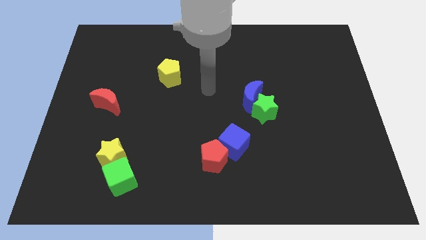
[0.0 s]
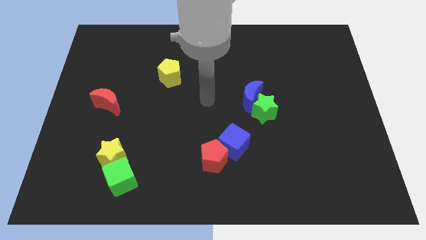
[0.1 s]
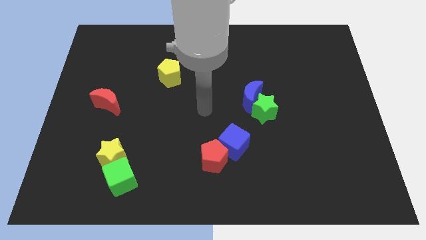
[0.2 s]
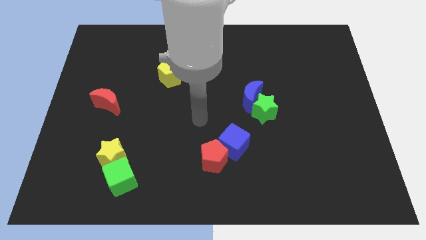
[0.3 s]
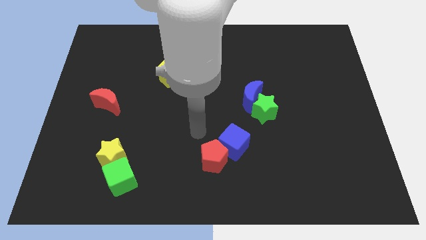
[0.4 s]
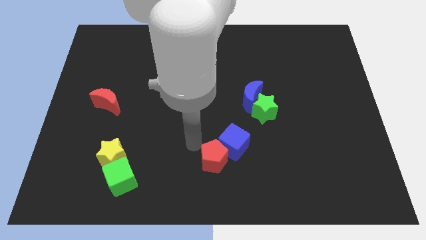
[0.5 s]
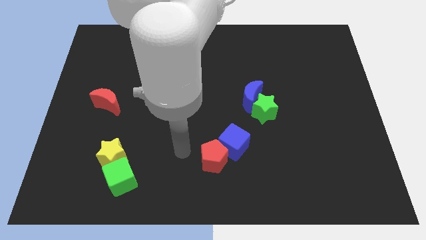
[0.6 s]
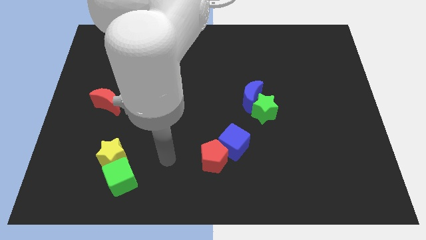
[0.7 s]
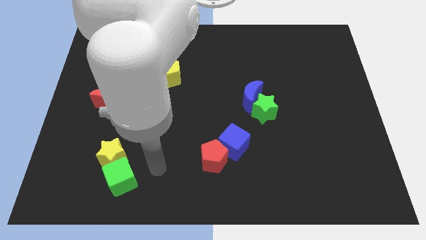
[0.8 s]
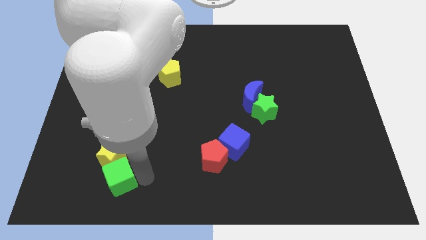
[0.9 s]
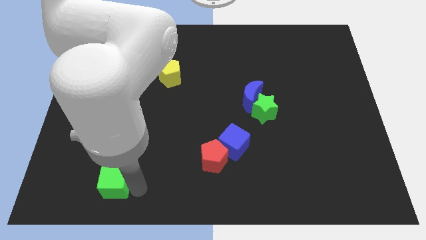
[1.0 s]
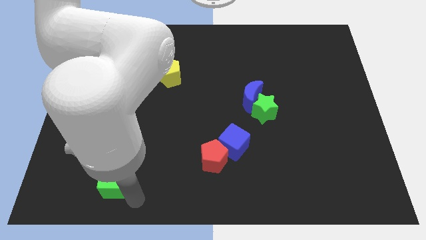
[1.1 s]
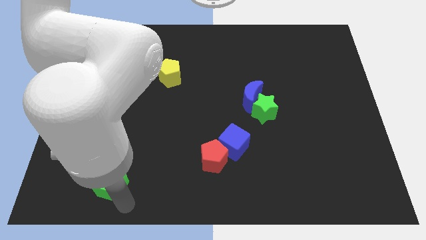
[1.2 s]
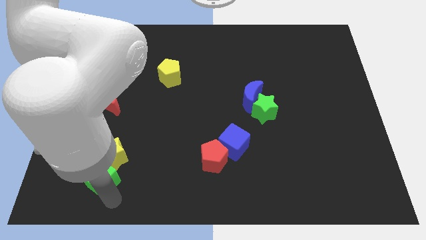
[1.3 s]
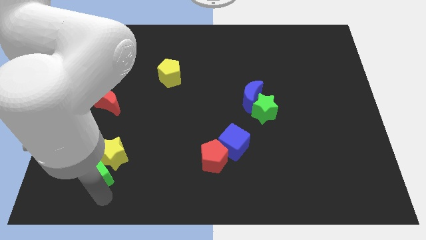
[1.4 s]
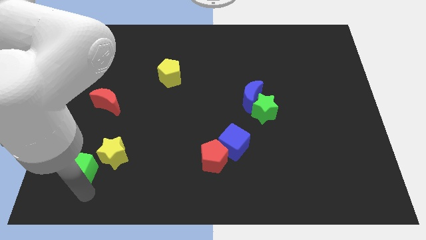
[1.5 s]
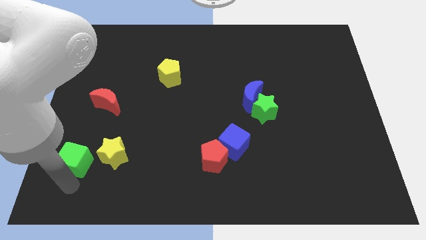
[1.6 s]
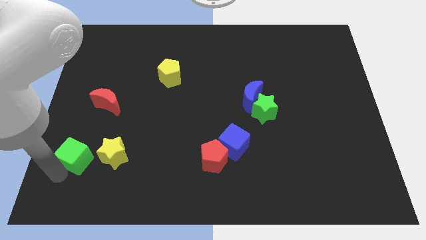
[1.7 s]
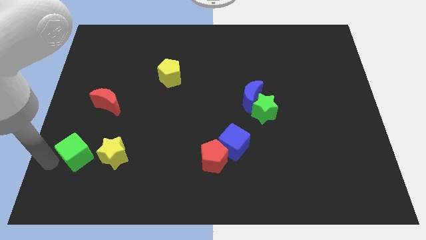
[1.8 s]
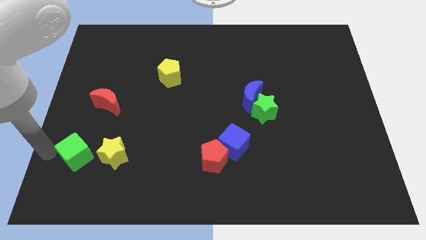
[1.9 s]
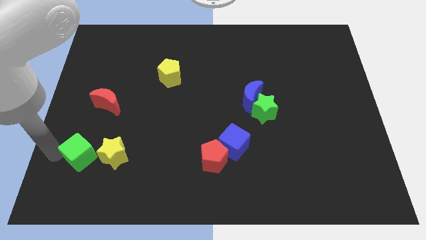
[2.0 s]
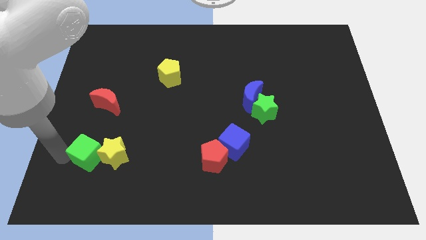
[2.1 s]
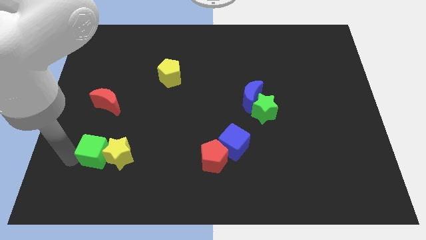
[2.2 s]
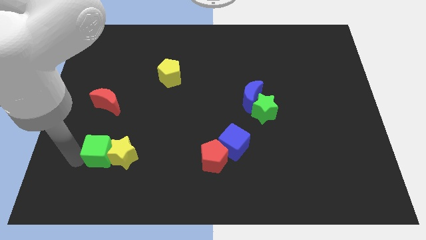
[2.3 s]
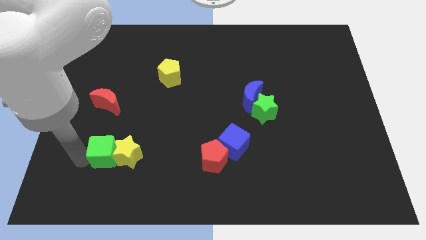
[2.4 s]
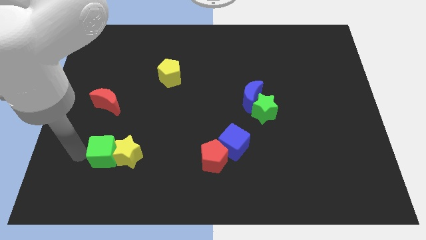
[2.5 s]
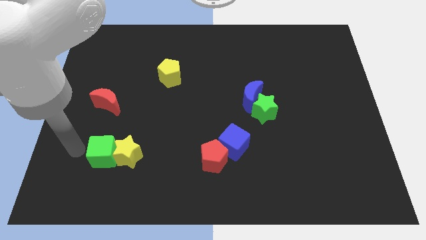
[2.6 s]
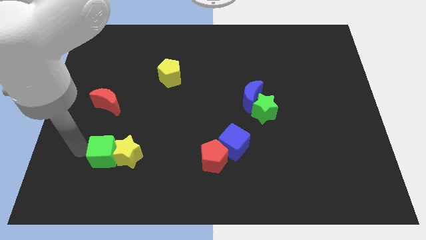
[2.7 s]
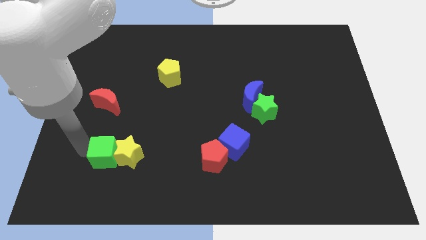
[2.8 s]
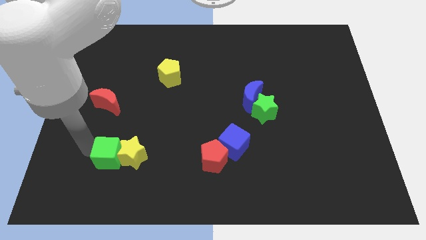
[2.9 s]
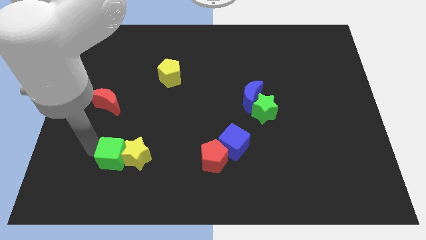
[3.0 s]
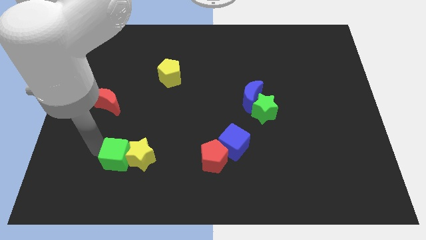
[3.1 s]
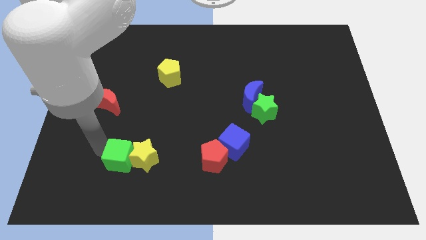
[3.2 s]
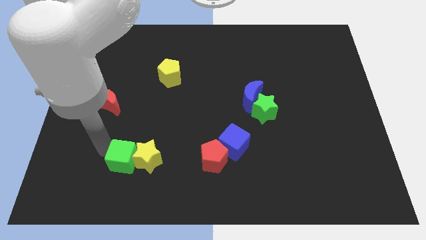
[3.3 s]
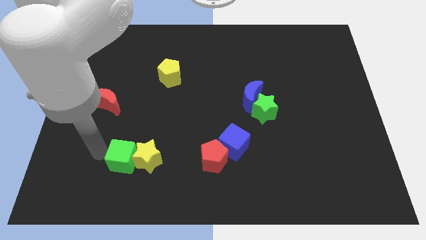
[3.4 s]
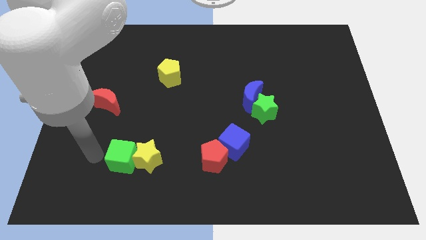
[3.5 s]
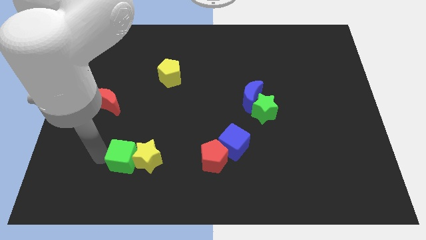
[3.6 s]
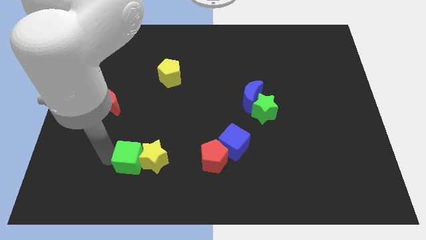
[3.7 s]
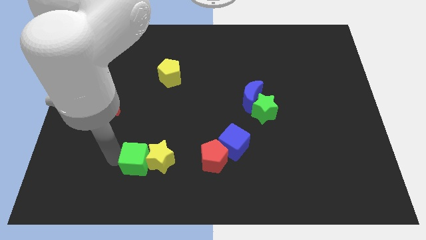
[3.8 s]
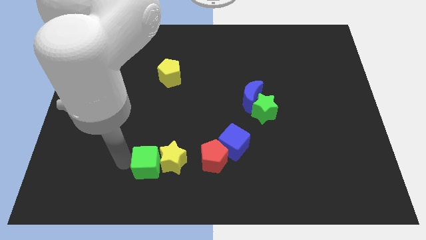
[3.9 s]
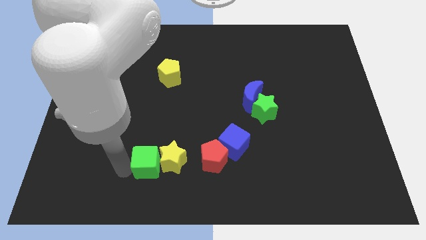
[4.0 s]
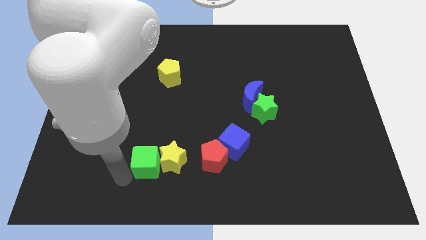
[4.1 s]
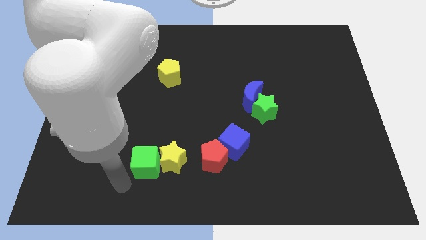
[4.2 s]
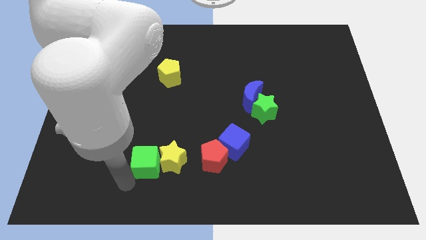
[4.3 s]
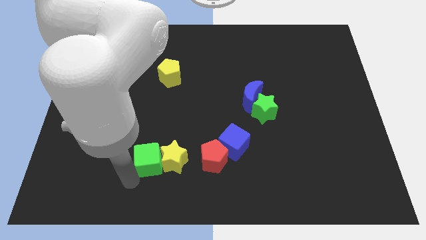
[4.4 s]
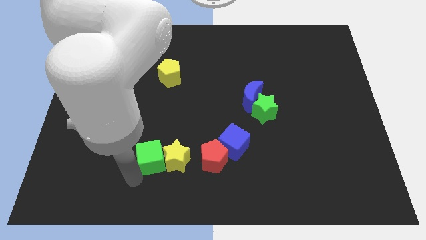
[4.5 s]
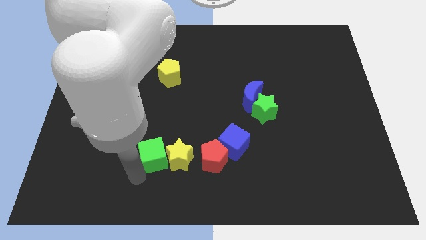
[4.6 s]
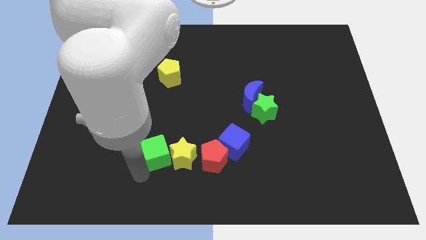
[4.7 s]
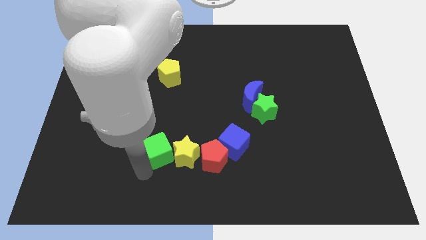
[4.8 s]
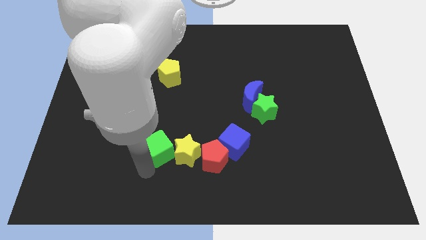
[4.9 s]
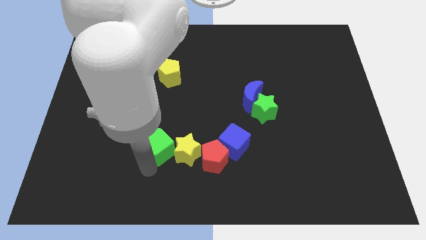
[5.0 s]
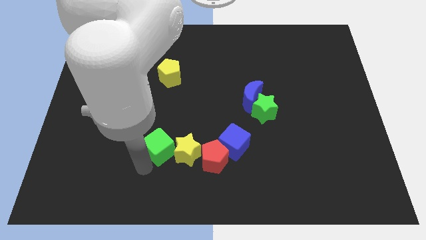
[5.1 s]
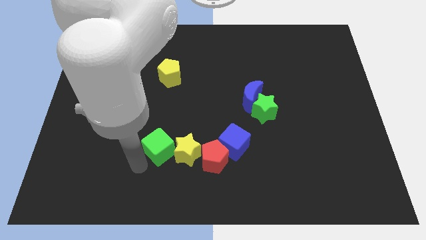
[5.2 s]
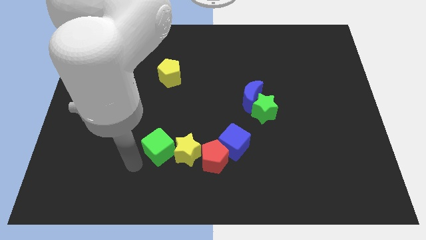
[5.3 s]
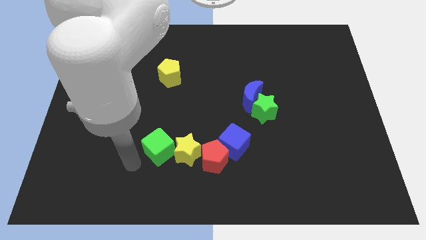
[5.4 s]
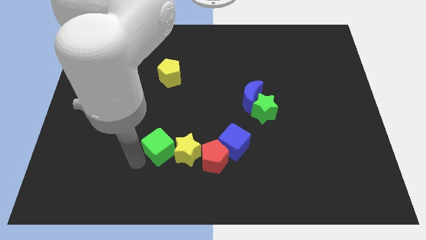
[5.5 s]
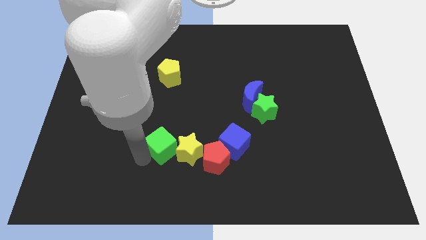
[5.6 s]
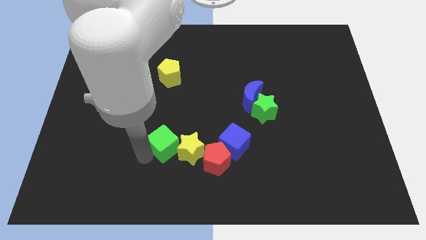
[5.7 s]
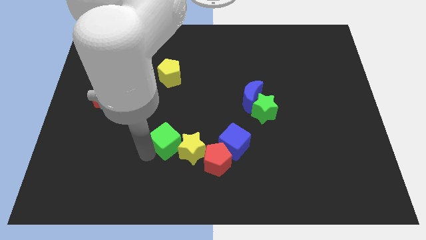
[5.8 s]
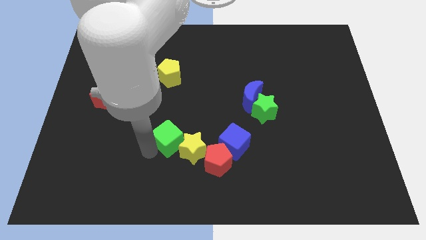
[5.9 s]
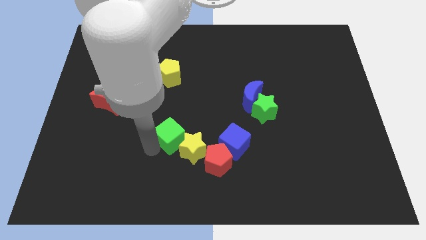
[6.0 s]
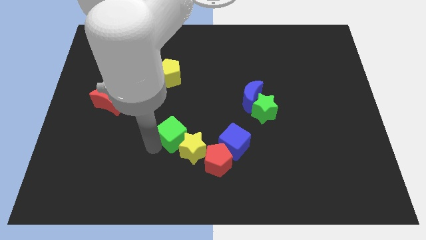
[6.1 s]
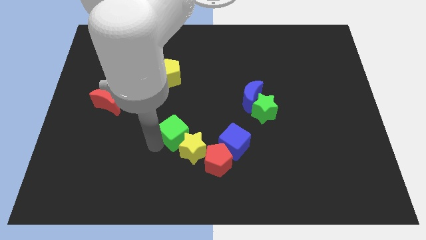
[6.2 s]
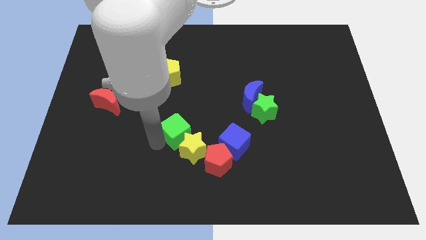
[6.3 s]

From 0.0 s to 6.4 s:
push the green cube to the middle of the board

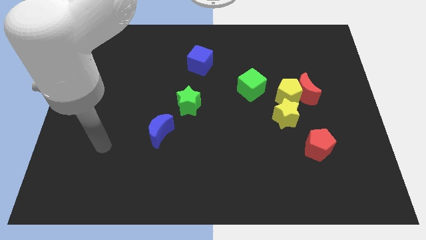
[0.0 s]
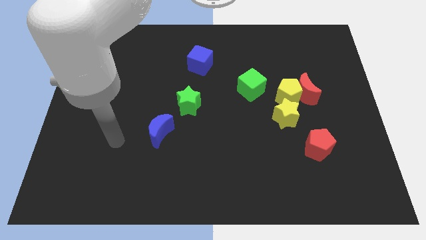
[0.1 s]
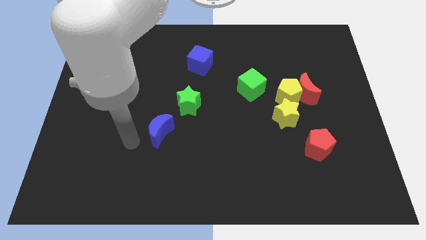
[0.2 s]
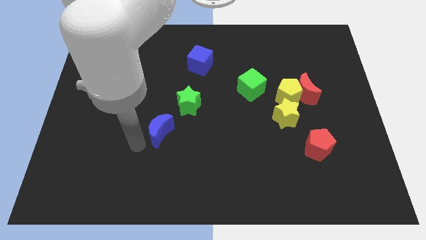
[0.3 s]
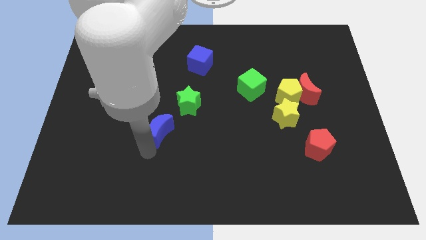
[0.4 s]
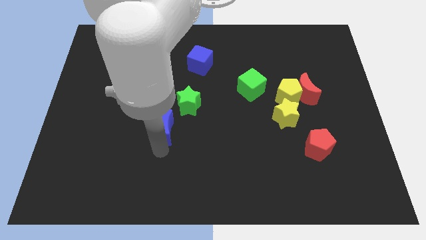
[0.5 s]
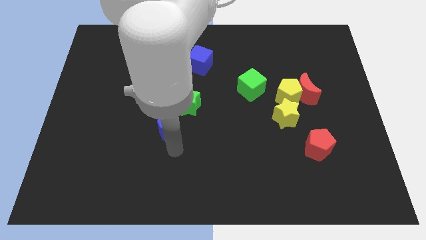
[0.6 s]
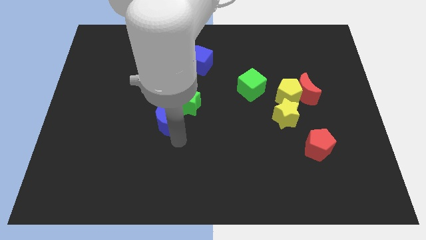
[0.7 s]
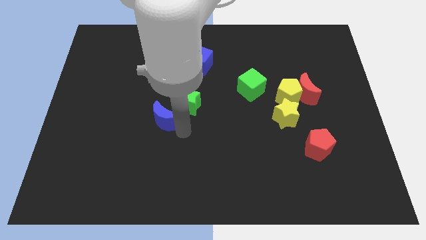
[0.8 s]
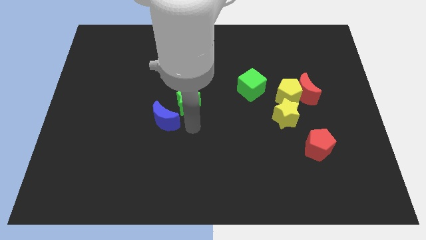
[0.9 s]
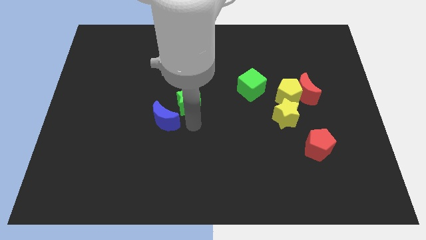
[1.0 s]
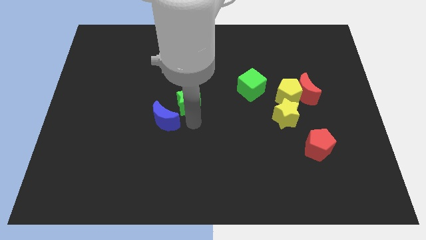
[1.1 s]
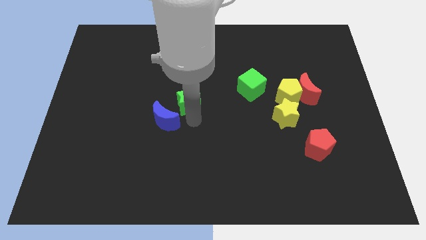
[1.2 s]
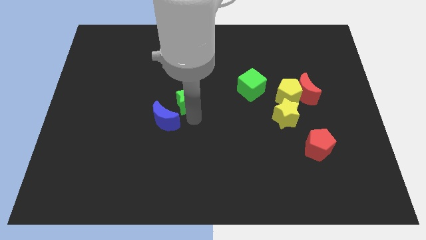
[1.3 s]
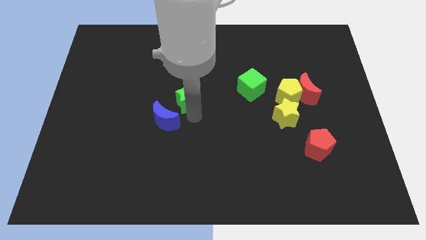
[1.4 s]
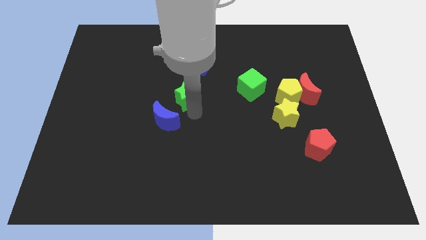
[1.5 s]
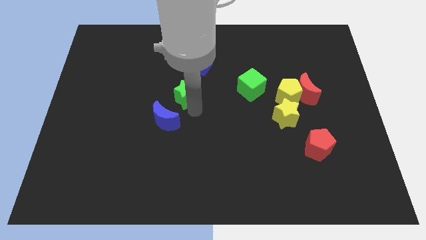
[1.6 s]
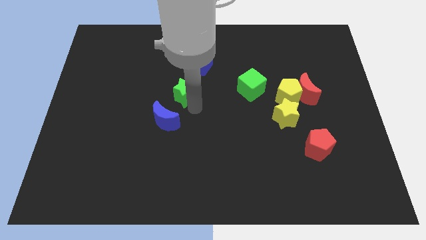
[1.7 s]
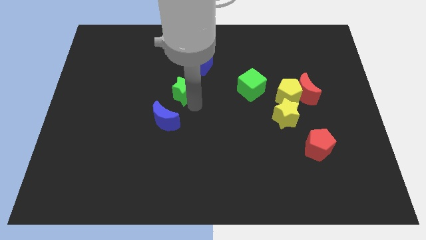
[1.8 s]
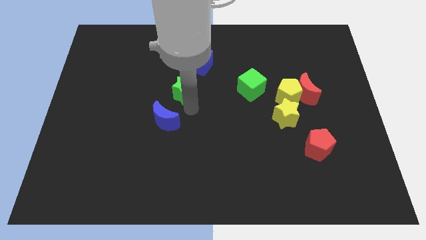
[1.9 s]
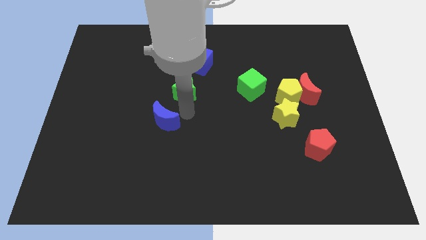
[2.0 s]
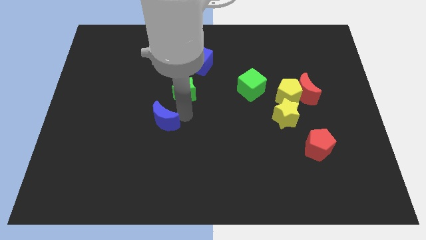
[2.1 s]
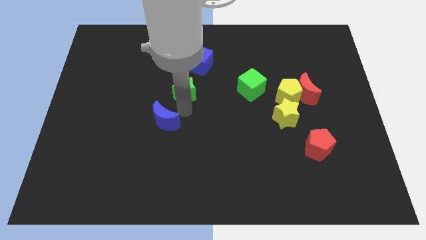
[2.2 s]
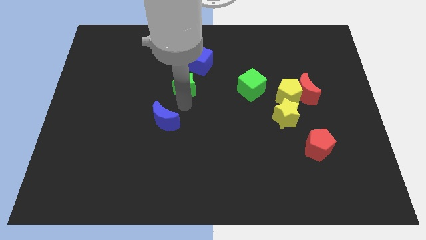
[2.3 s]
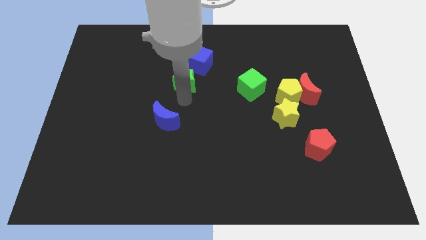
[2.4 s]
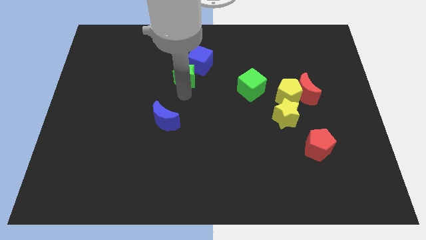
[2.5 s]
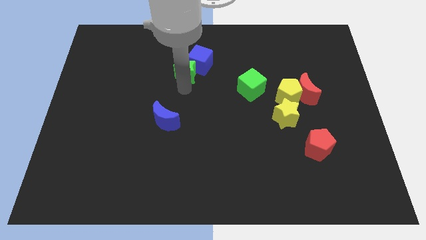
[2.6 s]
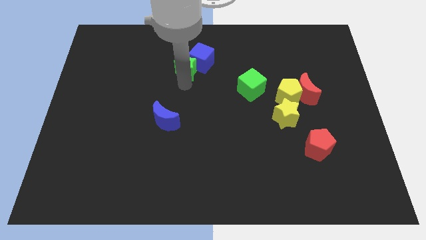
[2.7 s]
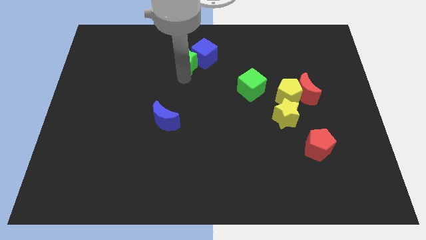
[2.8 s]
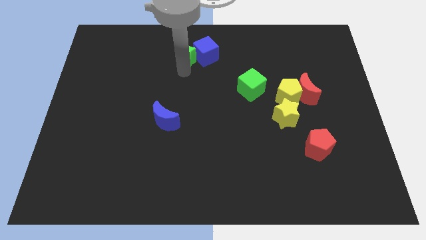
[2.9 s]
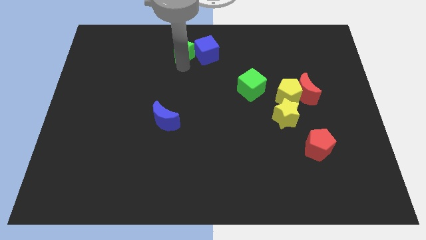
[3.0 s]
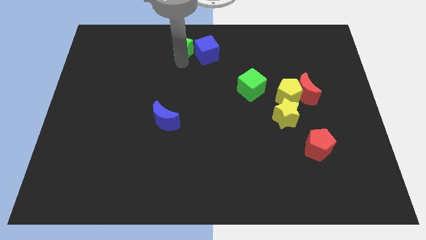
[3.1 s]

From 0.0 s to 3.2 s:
put the green star to the towards your base
